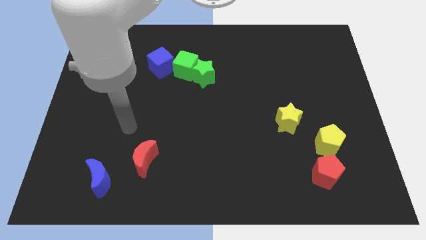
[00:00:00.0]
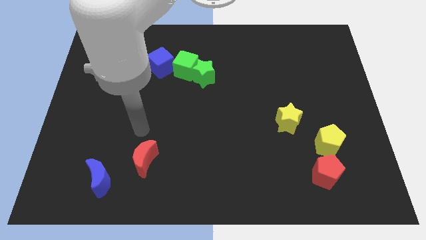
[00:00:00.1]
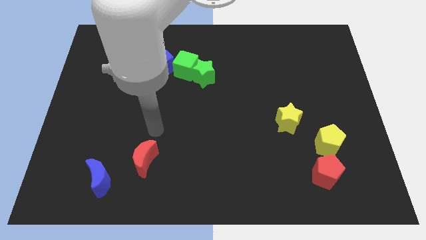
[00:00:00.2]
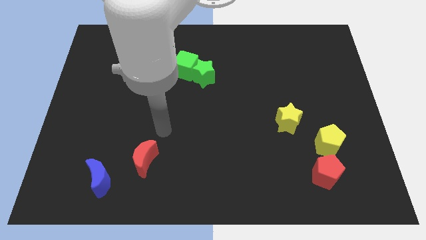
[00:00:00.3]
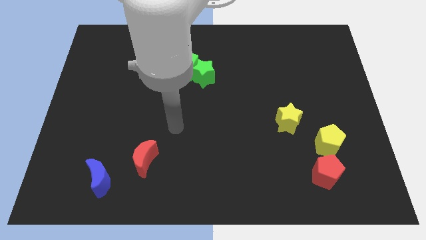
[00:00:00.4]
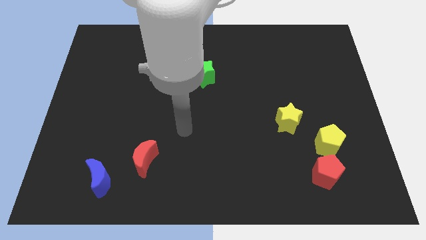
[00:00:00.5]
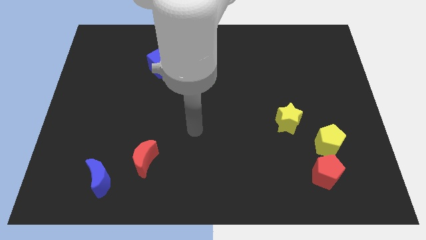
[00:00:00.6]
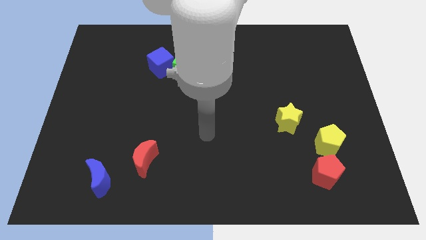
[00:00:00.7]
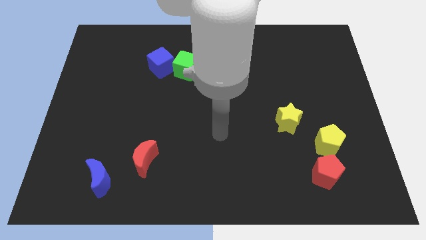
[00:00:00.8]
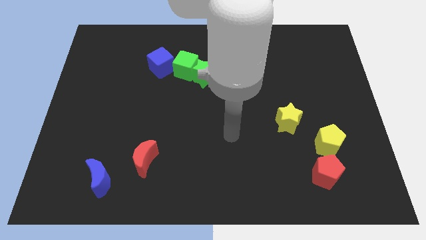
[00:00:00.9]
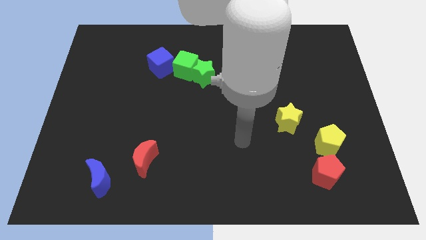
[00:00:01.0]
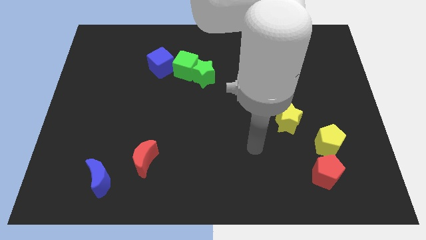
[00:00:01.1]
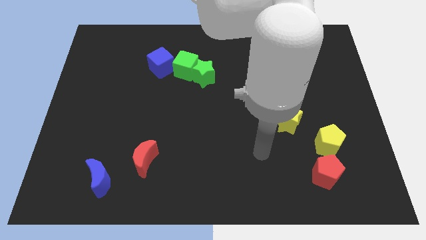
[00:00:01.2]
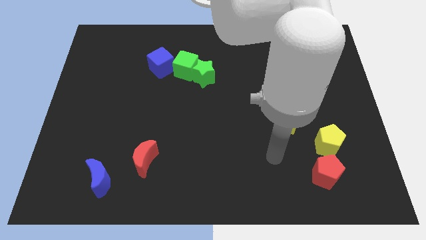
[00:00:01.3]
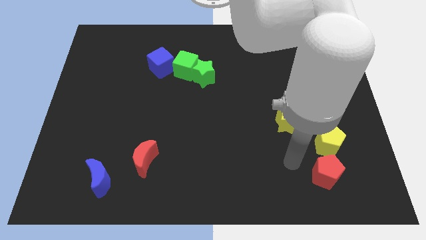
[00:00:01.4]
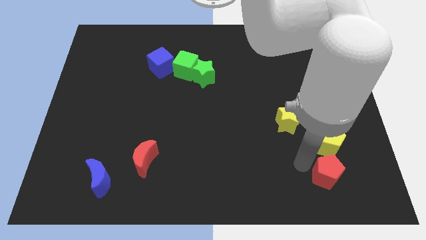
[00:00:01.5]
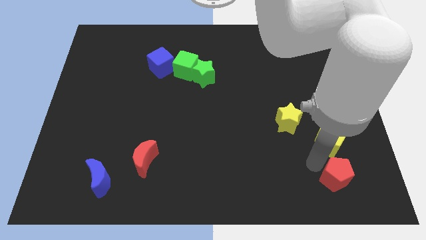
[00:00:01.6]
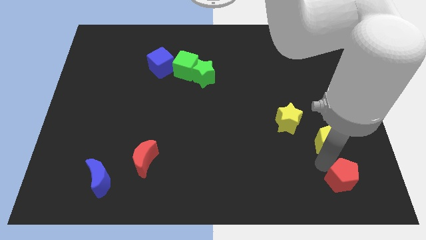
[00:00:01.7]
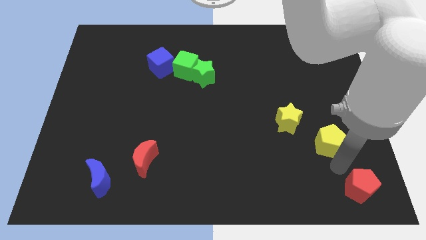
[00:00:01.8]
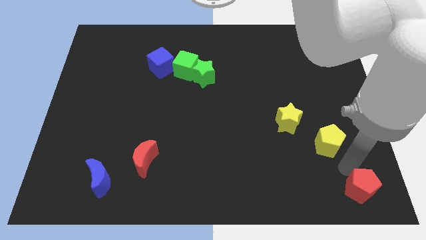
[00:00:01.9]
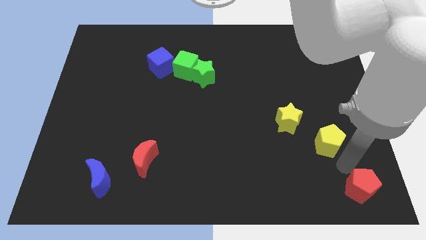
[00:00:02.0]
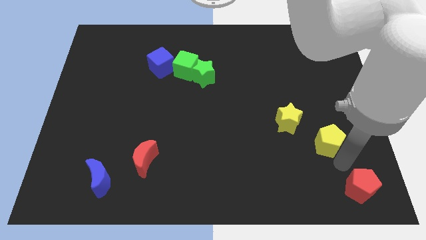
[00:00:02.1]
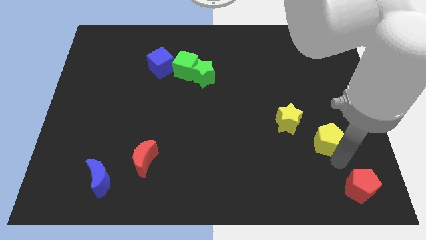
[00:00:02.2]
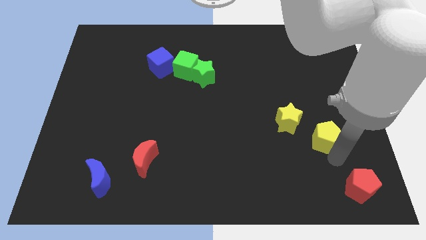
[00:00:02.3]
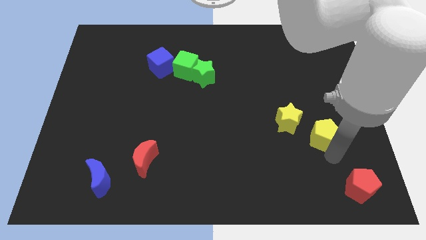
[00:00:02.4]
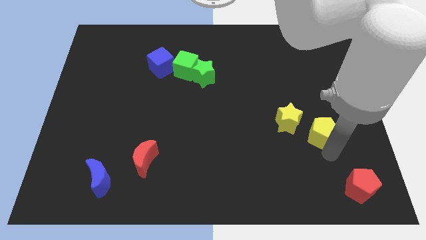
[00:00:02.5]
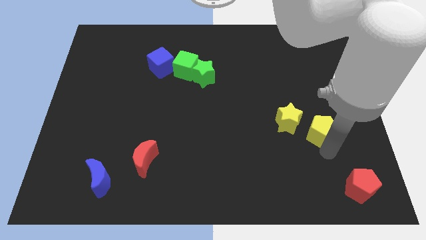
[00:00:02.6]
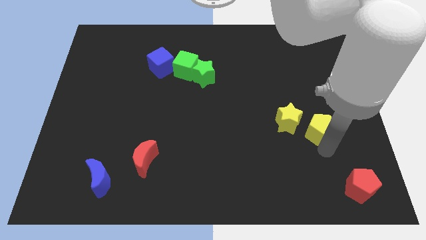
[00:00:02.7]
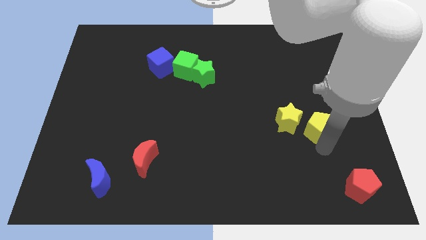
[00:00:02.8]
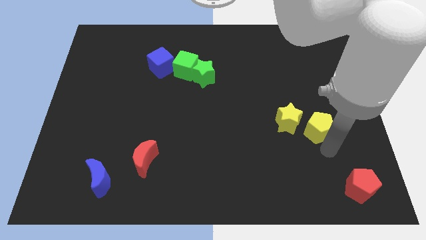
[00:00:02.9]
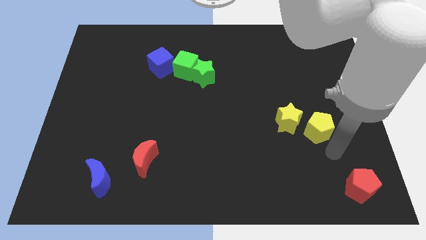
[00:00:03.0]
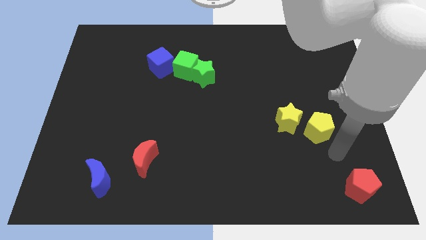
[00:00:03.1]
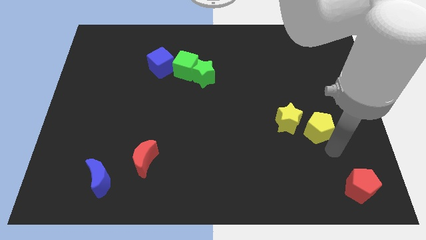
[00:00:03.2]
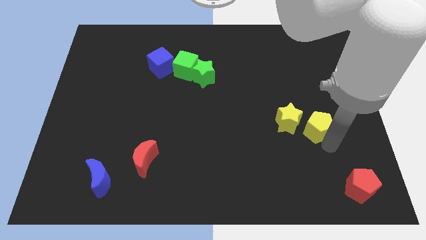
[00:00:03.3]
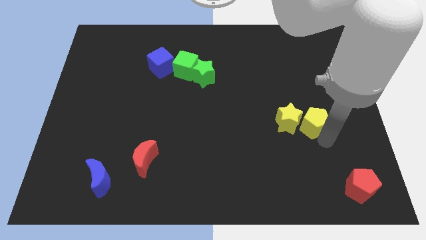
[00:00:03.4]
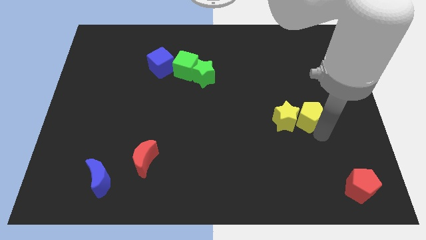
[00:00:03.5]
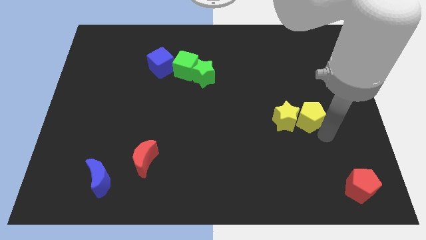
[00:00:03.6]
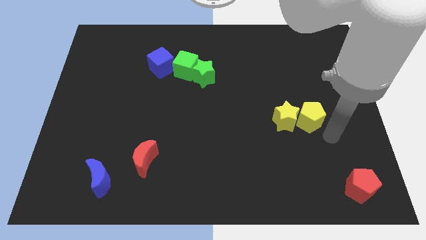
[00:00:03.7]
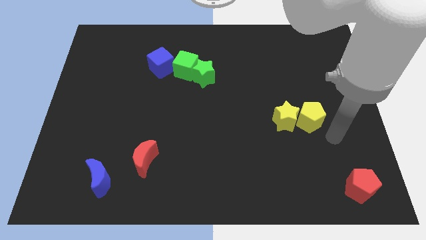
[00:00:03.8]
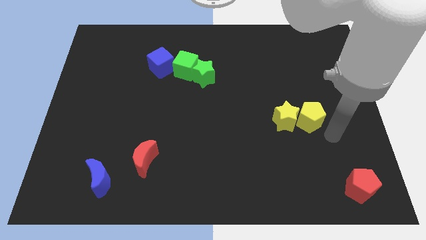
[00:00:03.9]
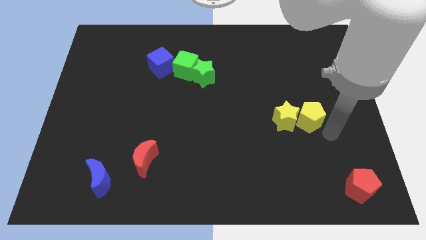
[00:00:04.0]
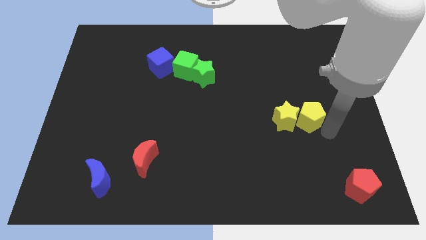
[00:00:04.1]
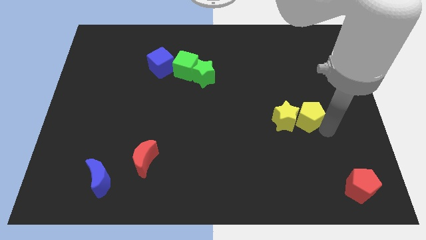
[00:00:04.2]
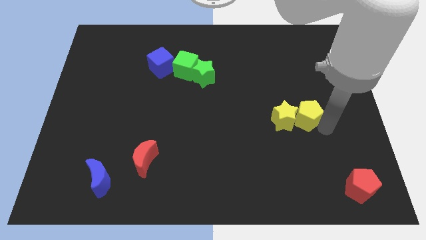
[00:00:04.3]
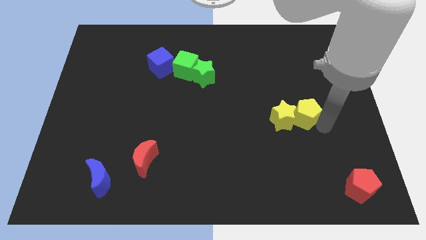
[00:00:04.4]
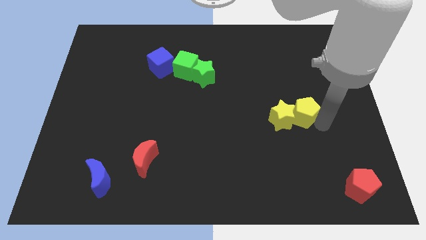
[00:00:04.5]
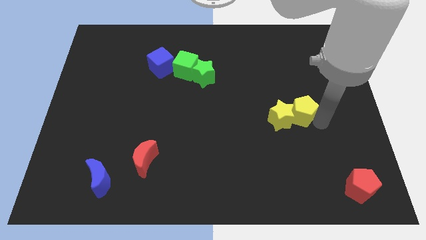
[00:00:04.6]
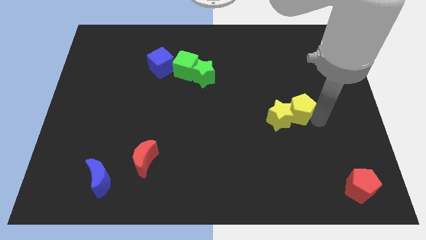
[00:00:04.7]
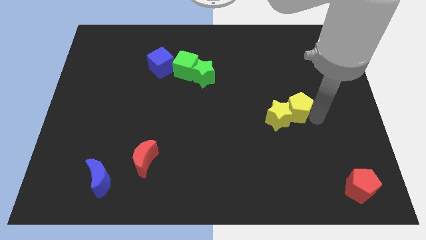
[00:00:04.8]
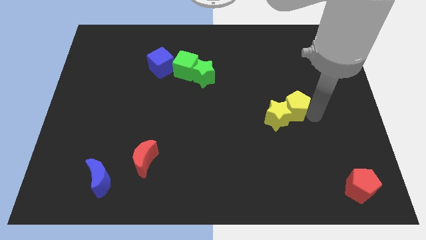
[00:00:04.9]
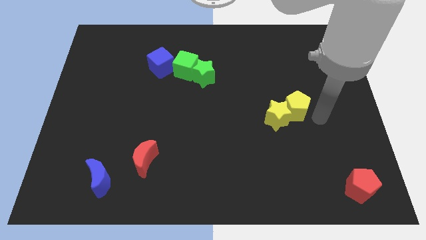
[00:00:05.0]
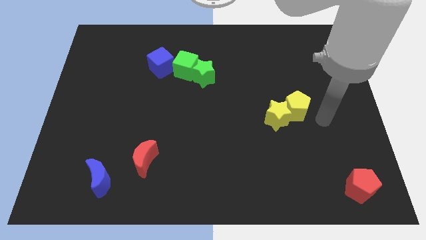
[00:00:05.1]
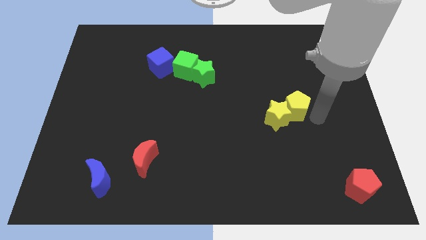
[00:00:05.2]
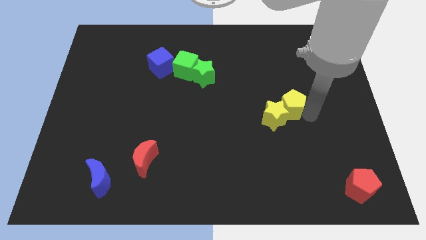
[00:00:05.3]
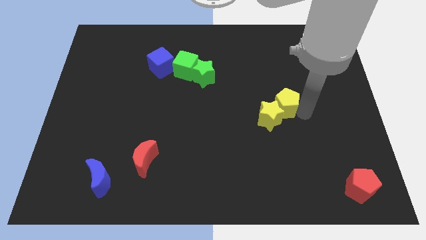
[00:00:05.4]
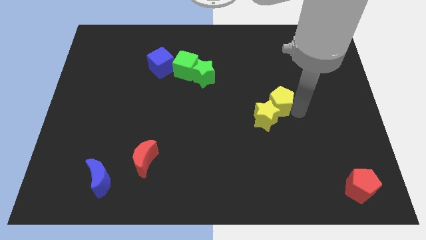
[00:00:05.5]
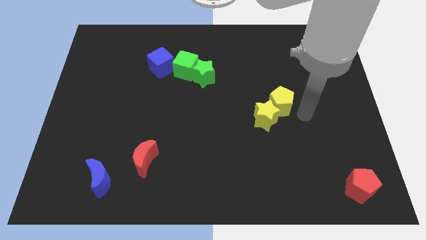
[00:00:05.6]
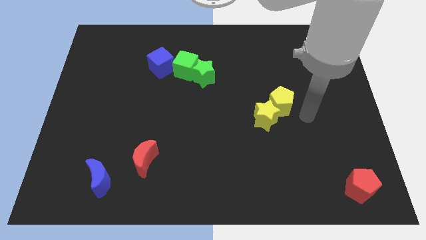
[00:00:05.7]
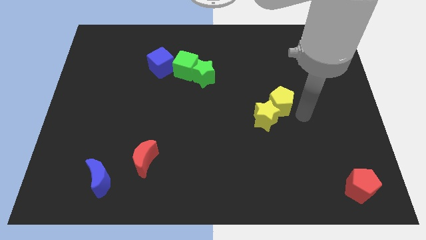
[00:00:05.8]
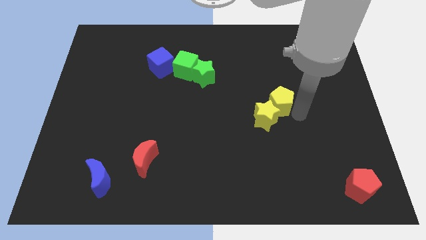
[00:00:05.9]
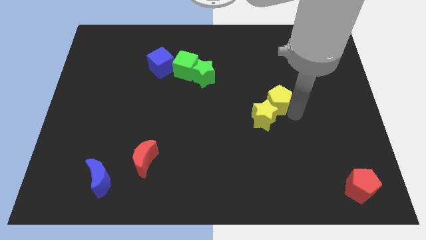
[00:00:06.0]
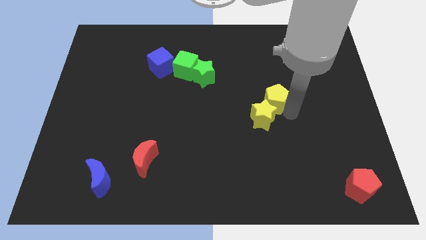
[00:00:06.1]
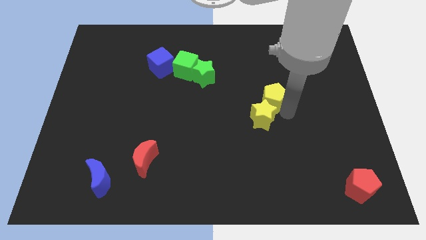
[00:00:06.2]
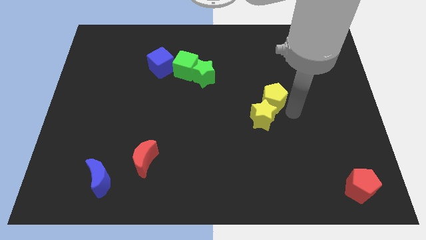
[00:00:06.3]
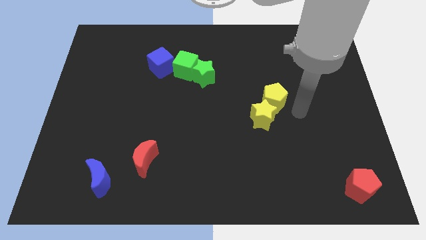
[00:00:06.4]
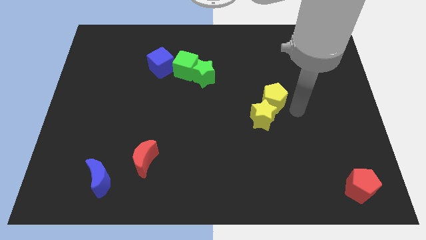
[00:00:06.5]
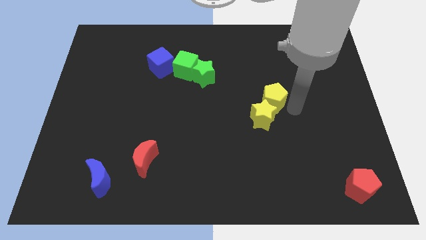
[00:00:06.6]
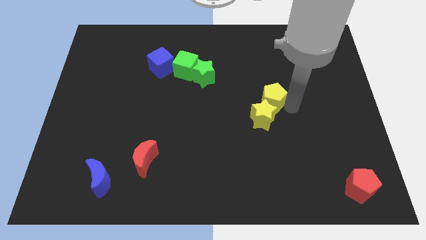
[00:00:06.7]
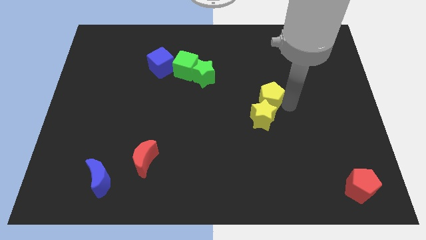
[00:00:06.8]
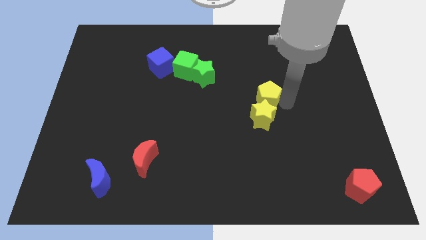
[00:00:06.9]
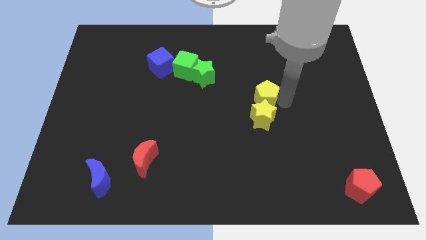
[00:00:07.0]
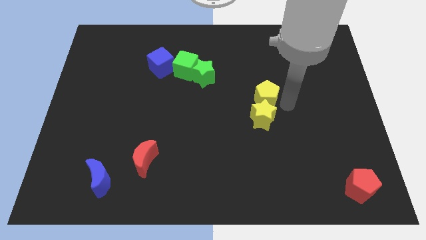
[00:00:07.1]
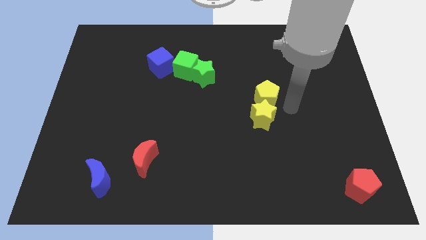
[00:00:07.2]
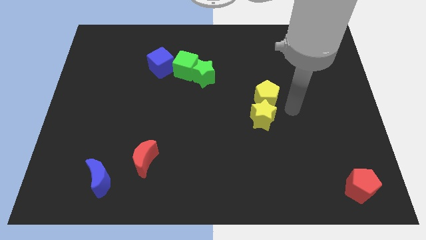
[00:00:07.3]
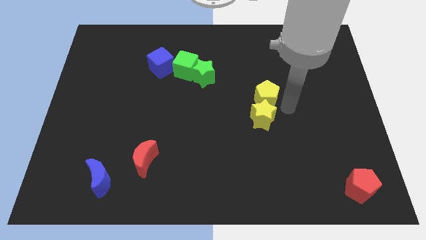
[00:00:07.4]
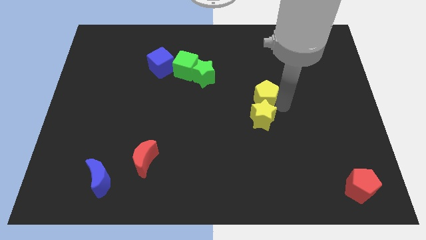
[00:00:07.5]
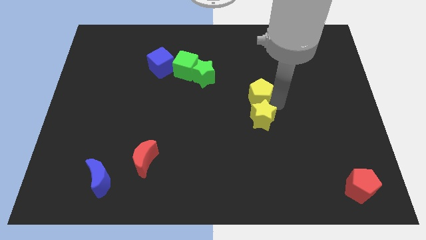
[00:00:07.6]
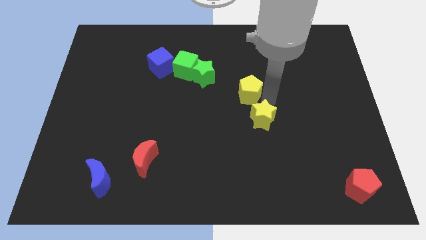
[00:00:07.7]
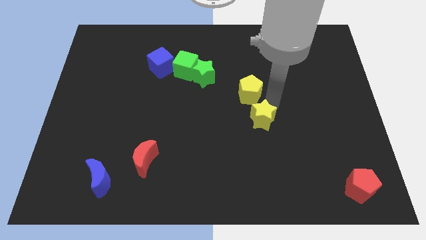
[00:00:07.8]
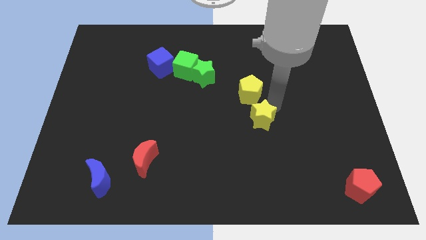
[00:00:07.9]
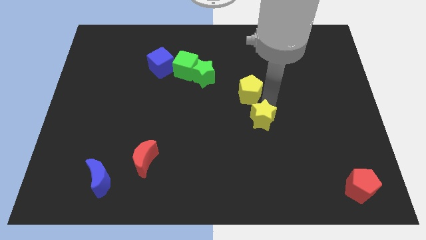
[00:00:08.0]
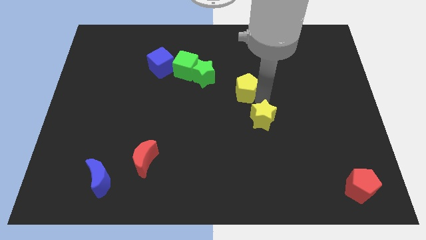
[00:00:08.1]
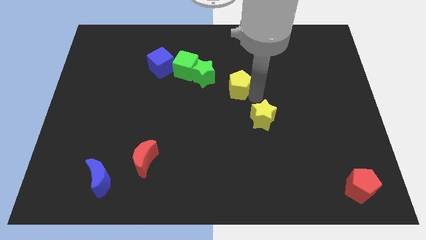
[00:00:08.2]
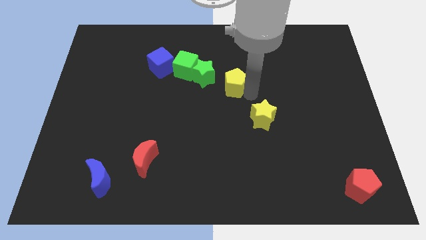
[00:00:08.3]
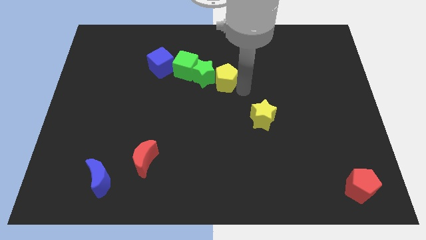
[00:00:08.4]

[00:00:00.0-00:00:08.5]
move the yellow pentagon next to the green star

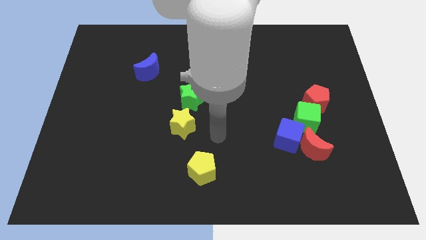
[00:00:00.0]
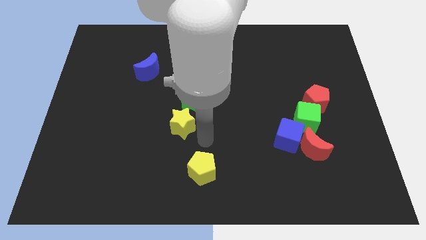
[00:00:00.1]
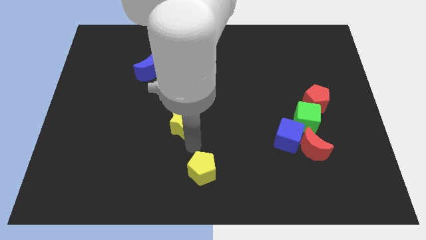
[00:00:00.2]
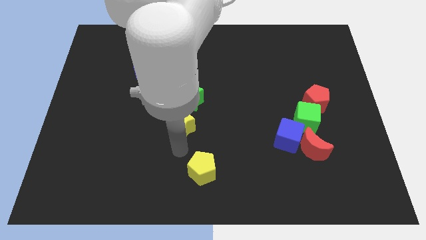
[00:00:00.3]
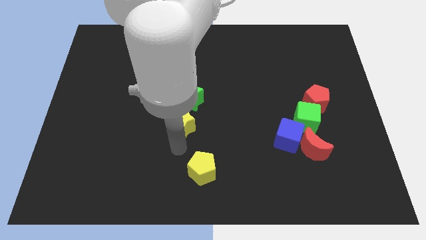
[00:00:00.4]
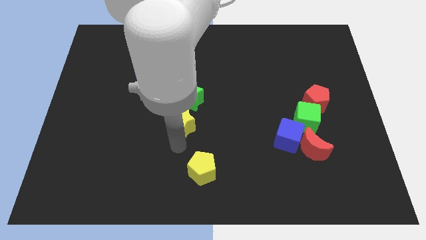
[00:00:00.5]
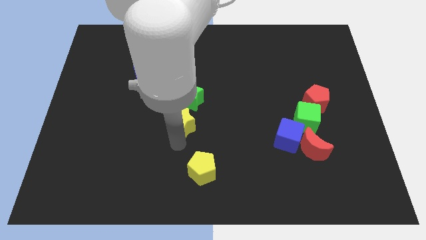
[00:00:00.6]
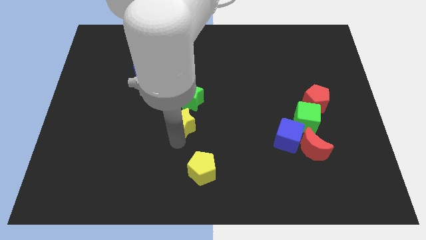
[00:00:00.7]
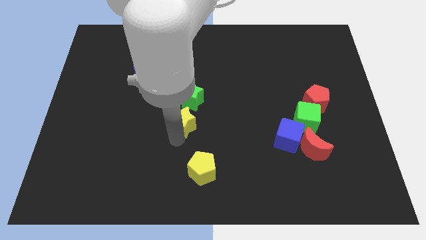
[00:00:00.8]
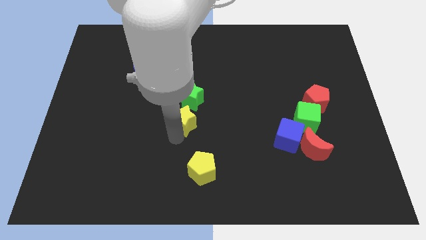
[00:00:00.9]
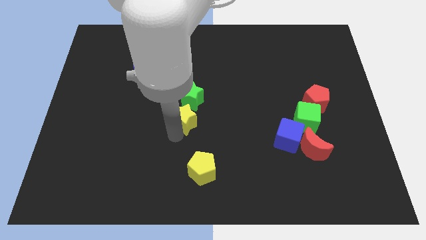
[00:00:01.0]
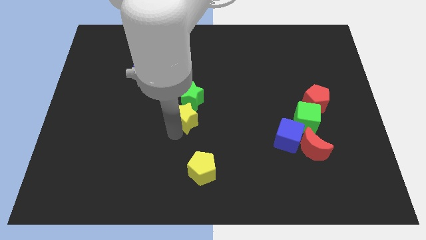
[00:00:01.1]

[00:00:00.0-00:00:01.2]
put the yellow star towards the green star
